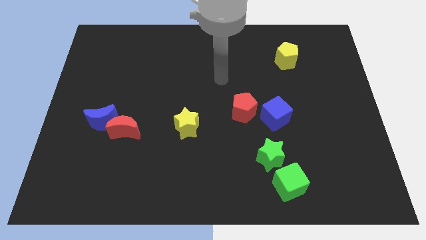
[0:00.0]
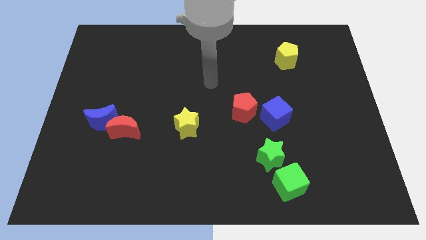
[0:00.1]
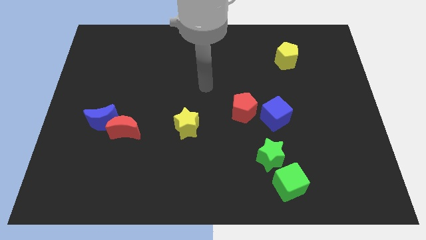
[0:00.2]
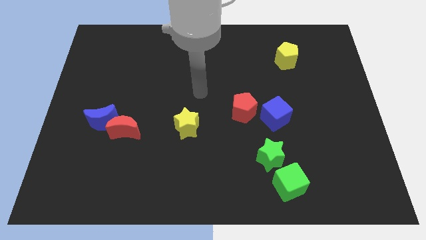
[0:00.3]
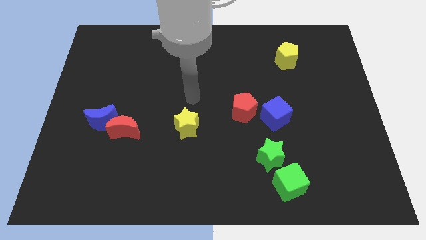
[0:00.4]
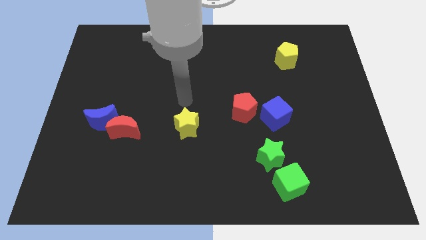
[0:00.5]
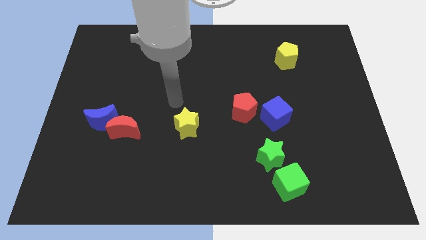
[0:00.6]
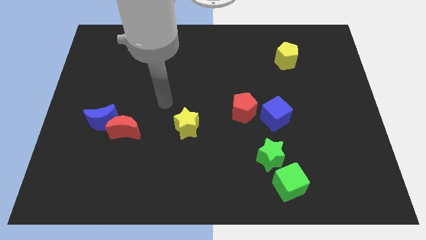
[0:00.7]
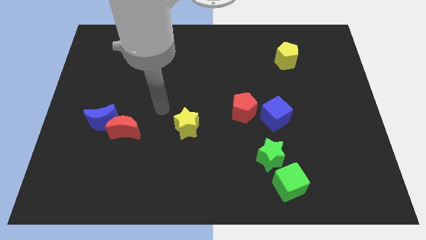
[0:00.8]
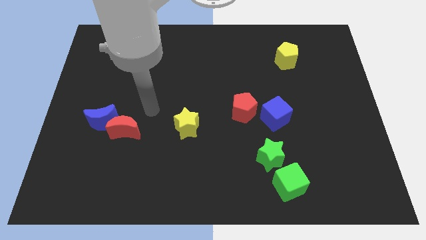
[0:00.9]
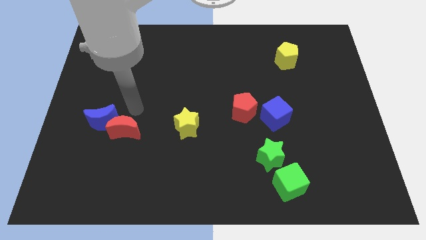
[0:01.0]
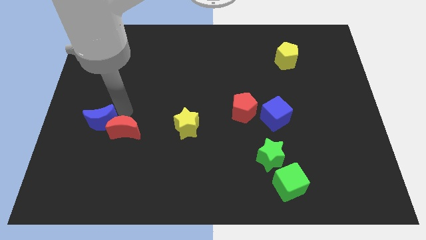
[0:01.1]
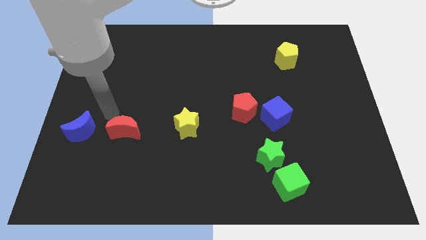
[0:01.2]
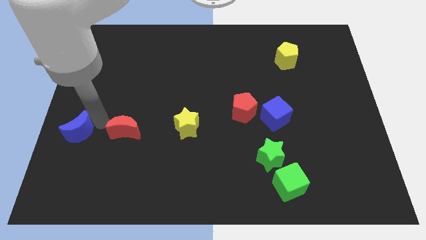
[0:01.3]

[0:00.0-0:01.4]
separate the red moon from the blue moon

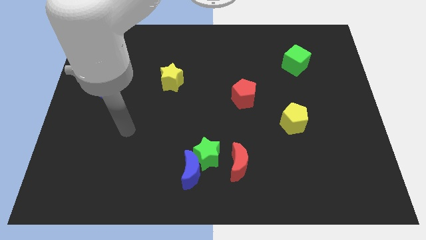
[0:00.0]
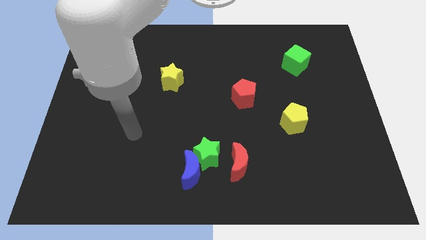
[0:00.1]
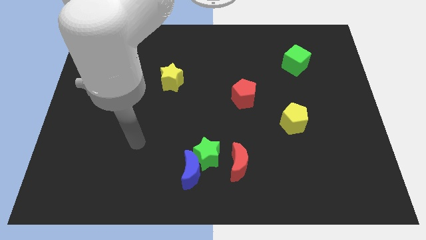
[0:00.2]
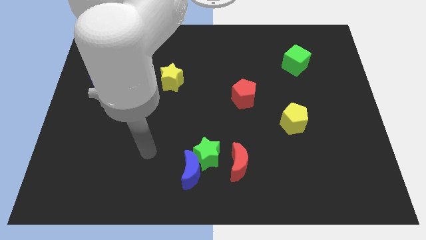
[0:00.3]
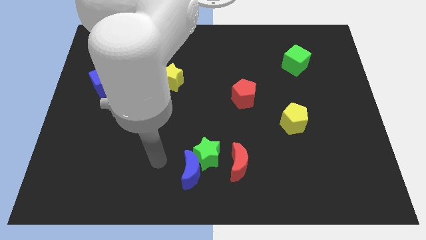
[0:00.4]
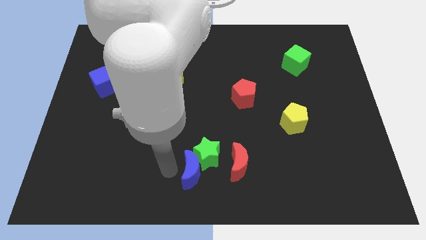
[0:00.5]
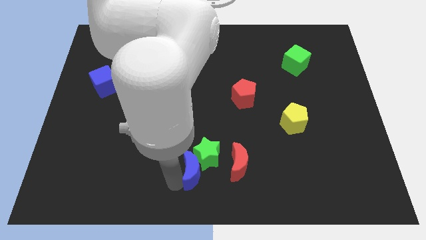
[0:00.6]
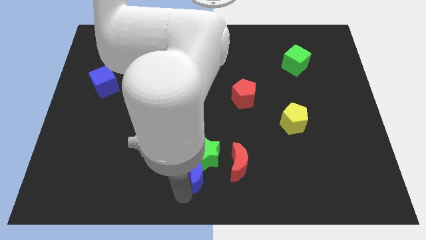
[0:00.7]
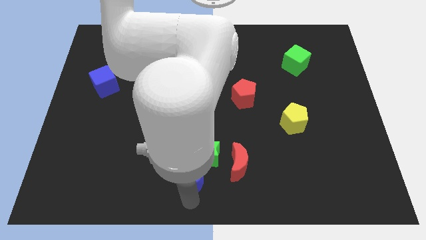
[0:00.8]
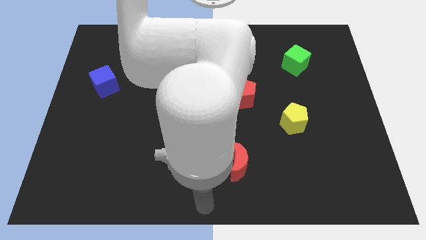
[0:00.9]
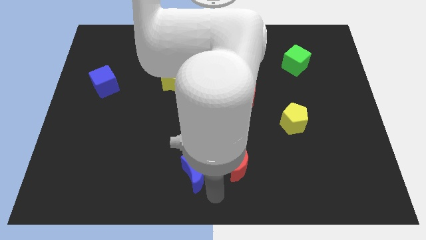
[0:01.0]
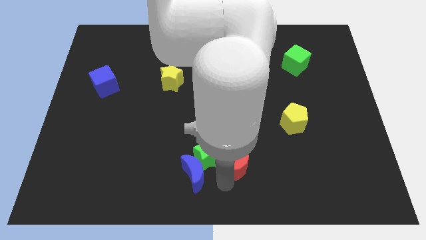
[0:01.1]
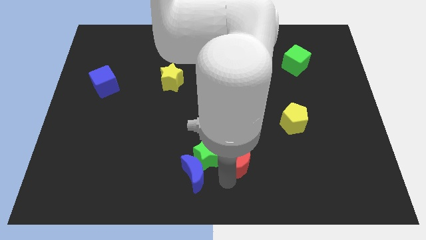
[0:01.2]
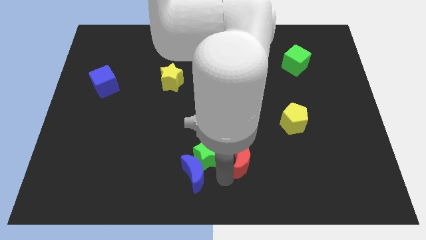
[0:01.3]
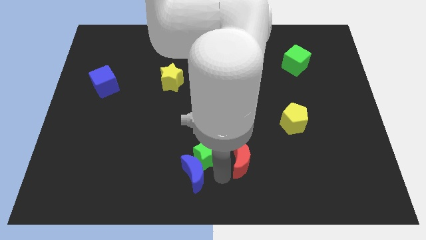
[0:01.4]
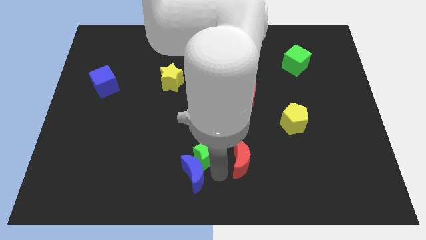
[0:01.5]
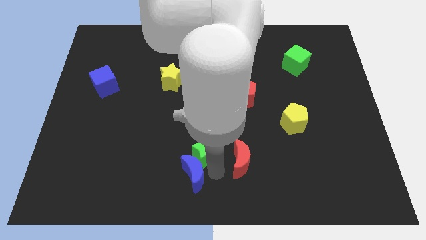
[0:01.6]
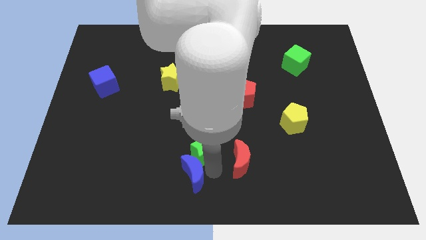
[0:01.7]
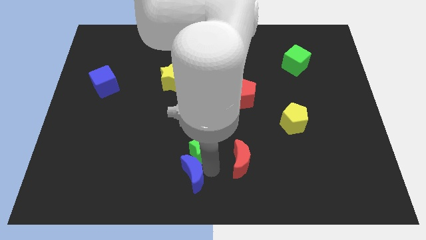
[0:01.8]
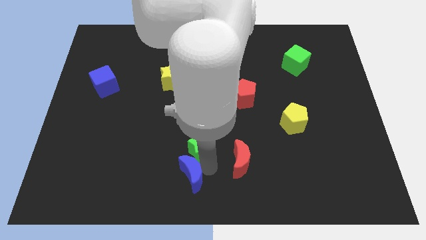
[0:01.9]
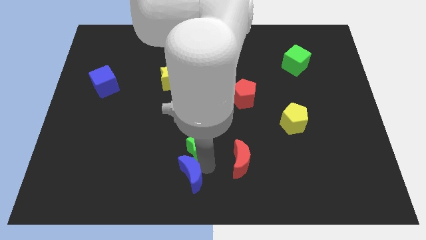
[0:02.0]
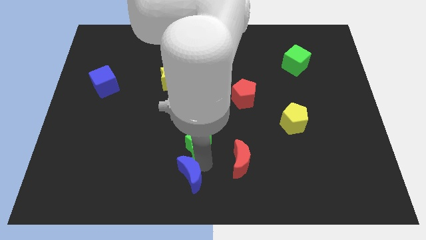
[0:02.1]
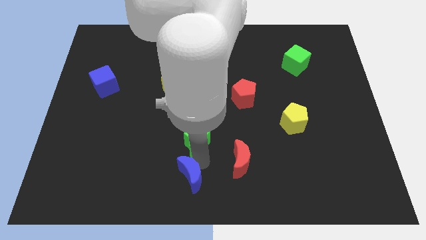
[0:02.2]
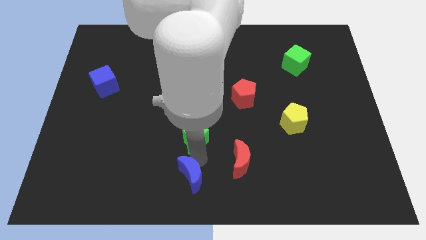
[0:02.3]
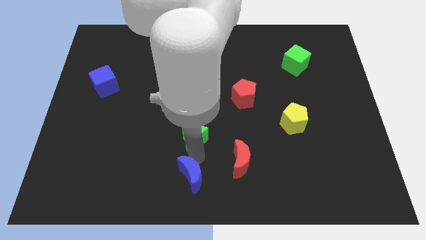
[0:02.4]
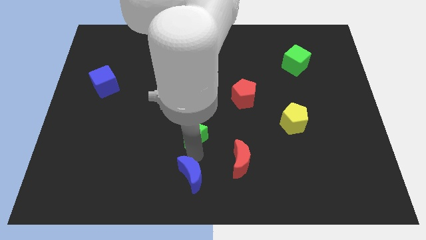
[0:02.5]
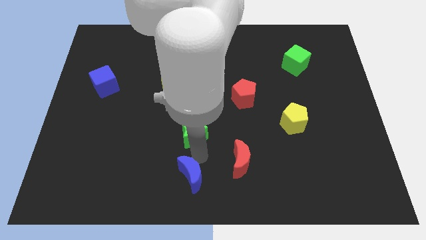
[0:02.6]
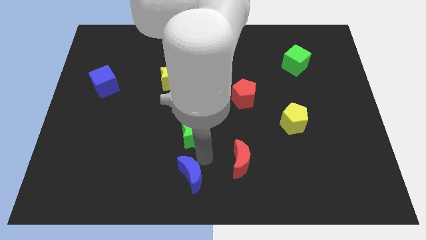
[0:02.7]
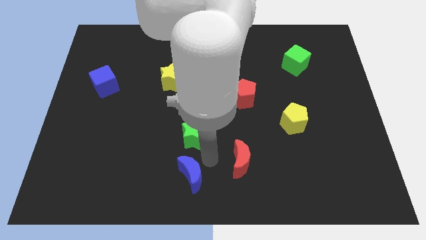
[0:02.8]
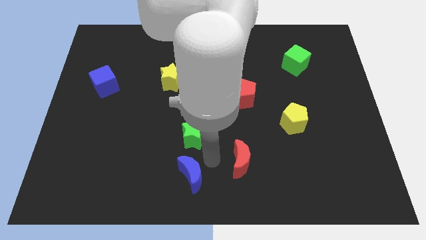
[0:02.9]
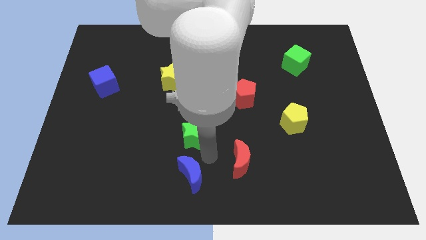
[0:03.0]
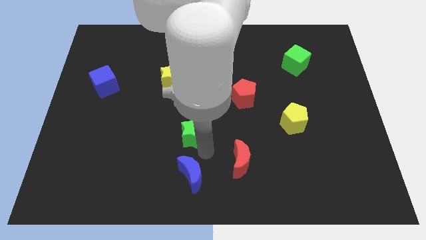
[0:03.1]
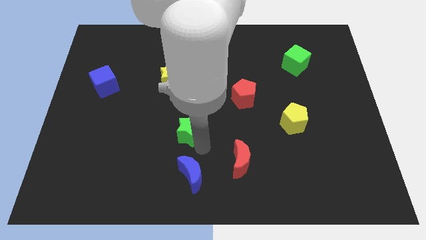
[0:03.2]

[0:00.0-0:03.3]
pull the green star apart from the blue moon and red moon

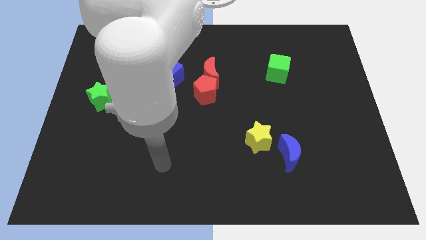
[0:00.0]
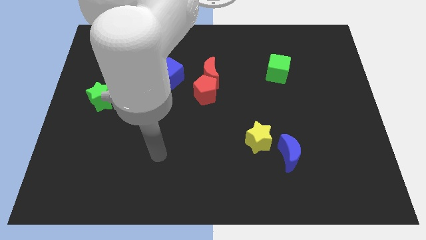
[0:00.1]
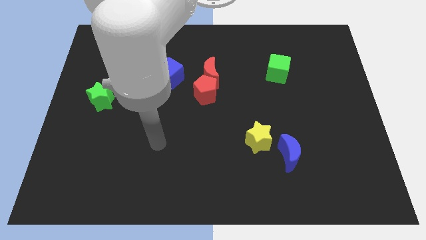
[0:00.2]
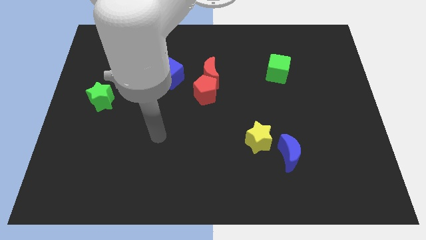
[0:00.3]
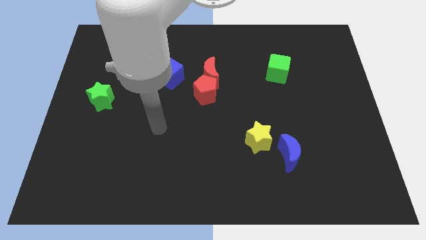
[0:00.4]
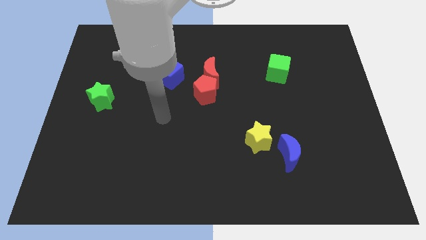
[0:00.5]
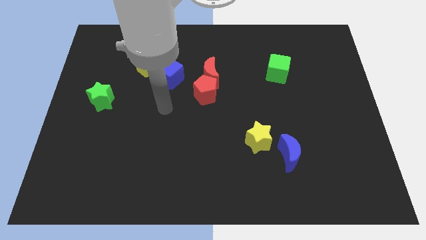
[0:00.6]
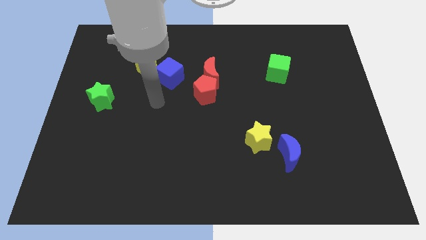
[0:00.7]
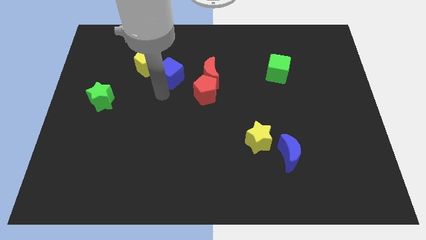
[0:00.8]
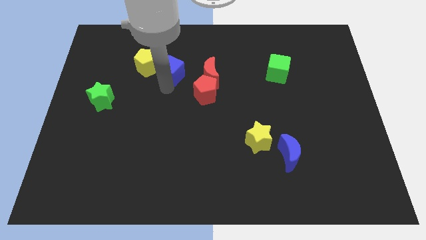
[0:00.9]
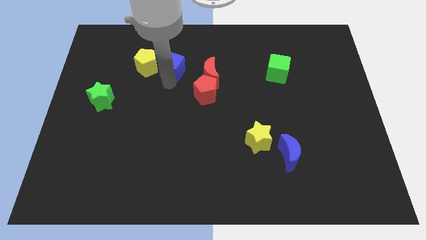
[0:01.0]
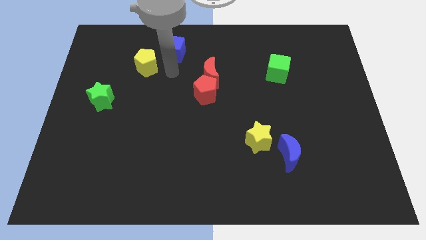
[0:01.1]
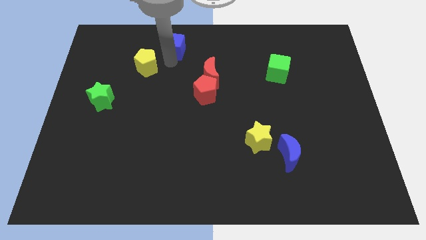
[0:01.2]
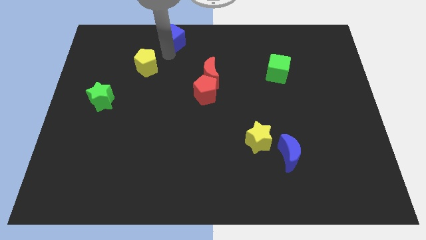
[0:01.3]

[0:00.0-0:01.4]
move the yellow pentagon away from the blue cube

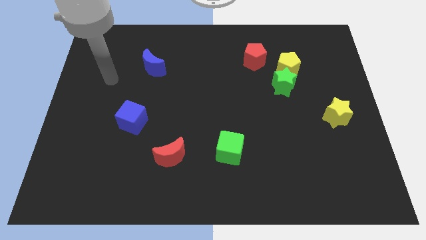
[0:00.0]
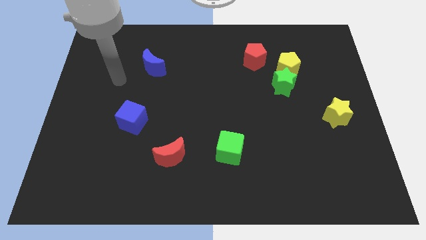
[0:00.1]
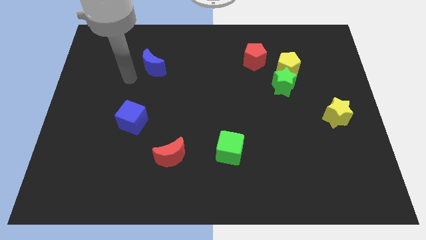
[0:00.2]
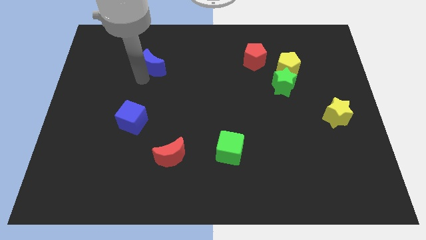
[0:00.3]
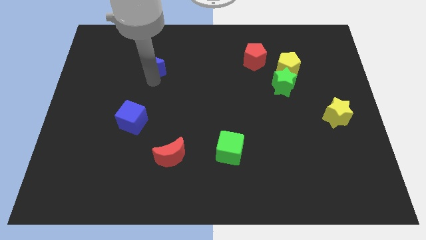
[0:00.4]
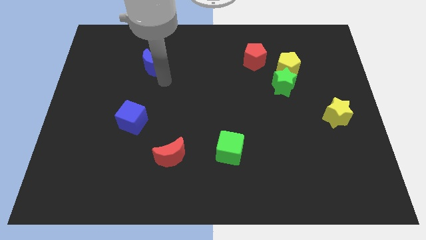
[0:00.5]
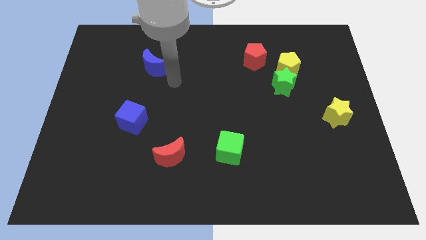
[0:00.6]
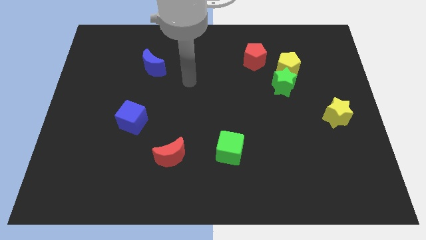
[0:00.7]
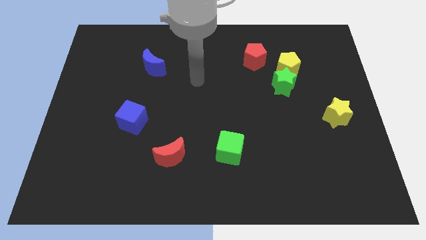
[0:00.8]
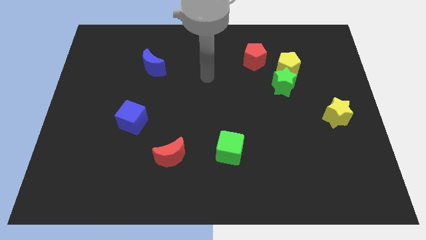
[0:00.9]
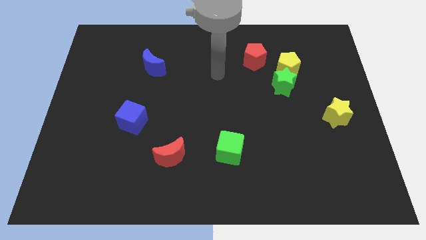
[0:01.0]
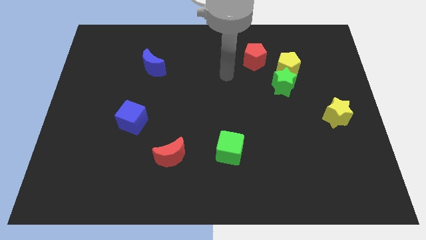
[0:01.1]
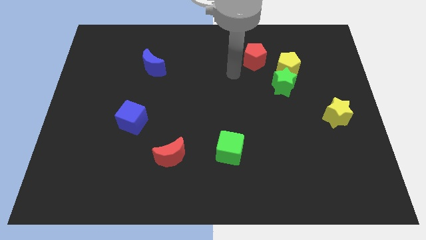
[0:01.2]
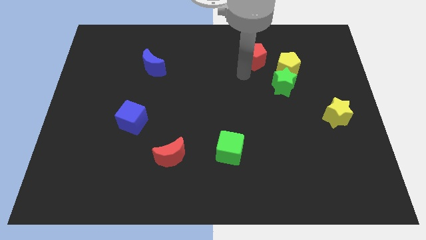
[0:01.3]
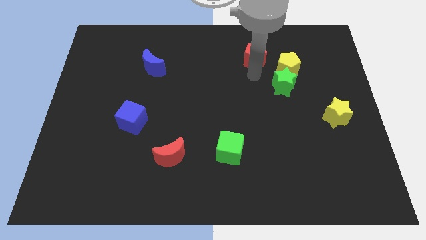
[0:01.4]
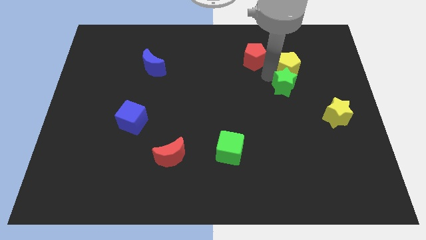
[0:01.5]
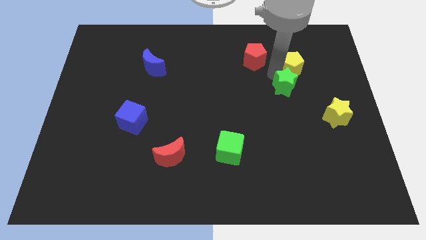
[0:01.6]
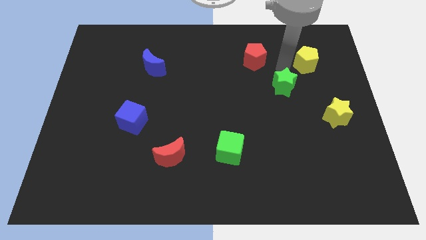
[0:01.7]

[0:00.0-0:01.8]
separate the green star from the yellow pentagon

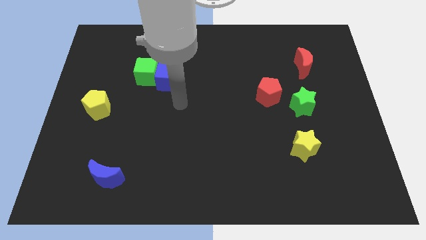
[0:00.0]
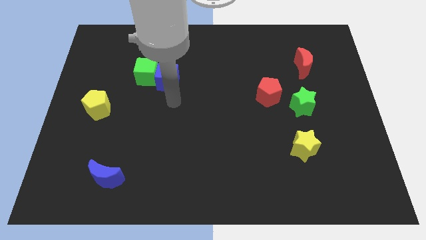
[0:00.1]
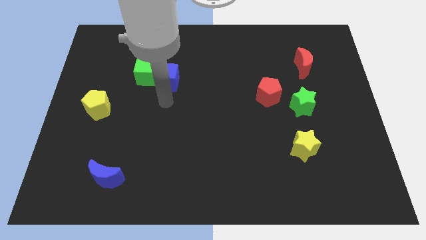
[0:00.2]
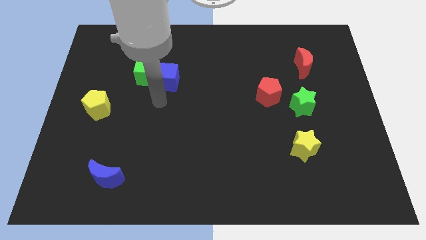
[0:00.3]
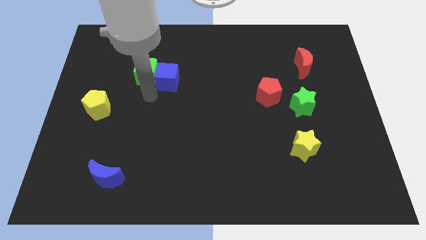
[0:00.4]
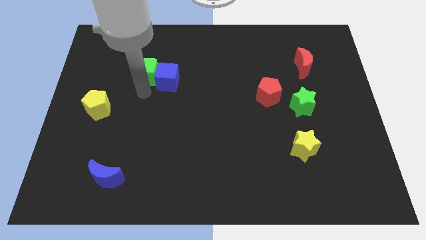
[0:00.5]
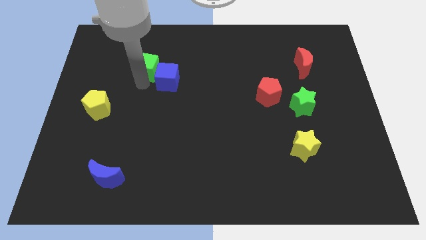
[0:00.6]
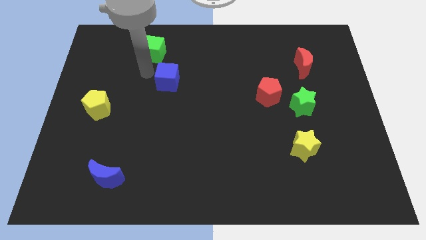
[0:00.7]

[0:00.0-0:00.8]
pull the blue cube apart from the green cube

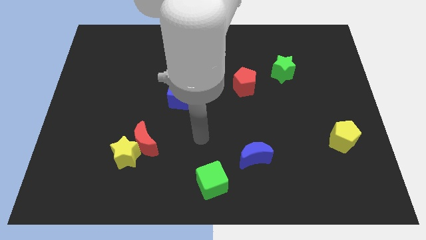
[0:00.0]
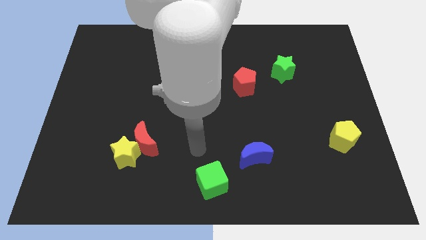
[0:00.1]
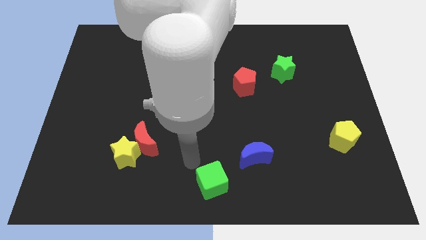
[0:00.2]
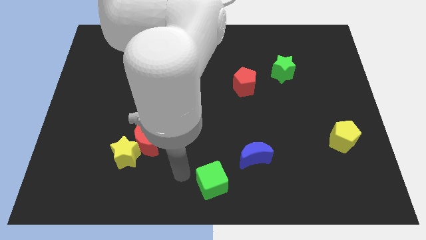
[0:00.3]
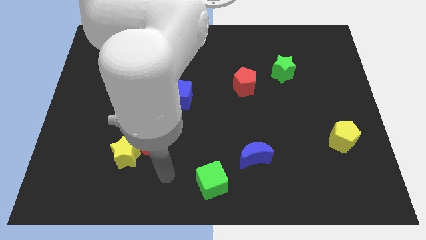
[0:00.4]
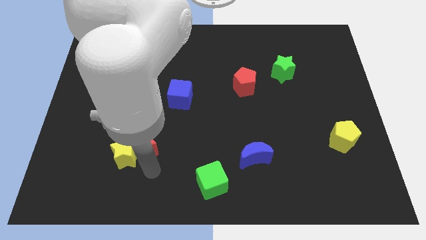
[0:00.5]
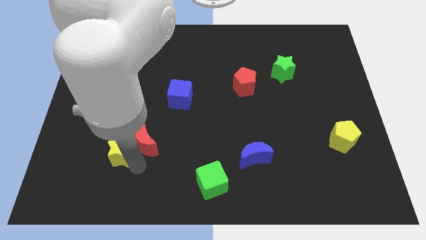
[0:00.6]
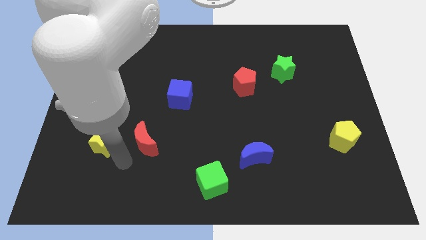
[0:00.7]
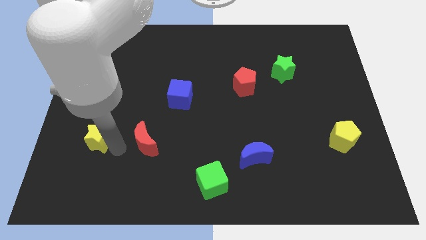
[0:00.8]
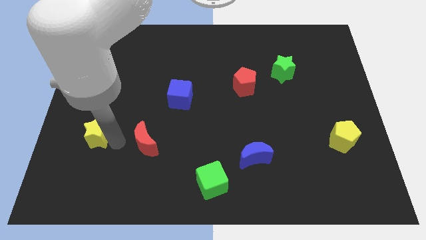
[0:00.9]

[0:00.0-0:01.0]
move the red moon away from the yellow star
